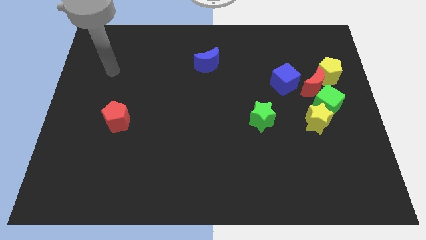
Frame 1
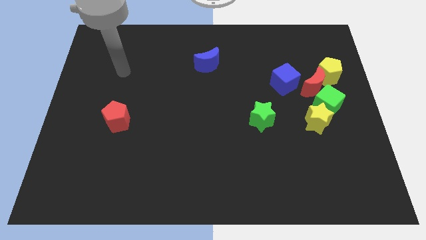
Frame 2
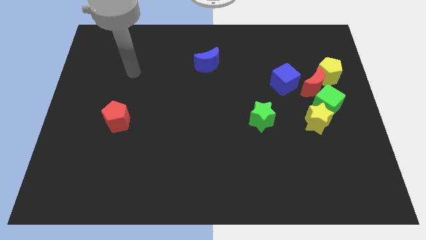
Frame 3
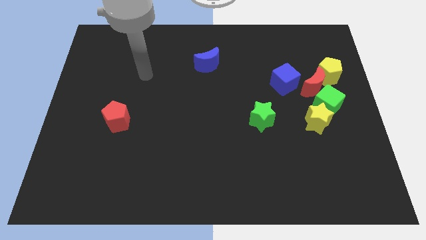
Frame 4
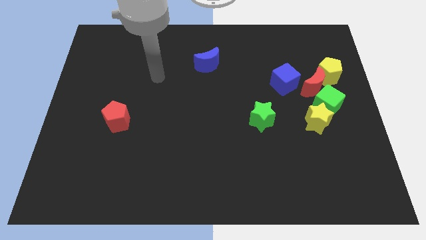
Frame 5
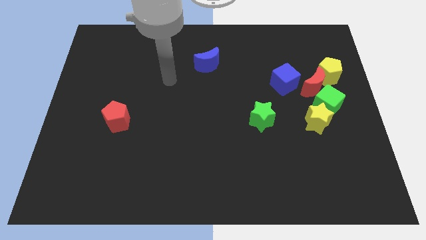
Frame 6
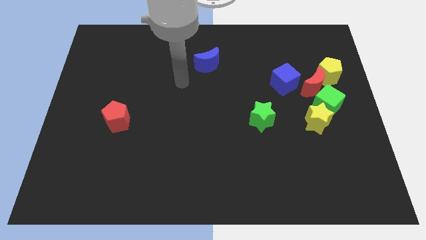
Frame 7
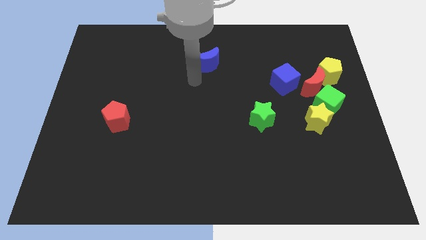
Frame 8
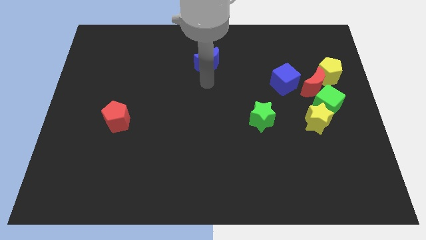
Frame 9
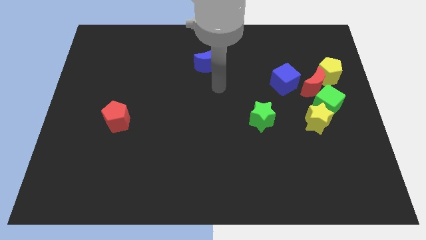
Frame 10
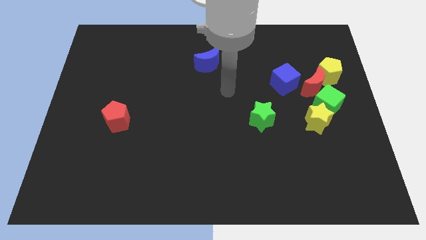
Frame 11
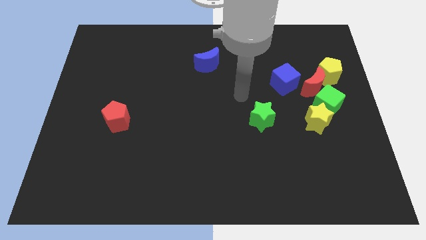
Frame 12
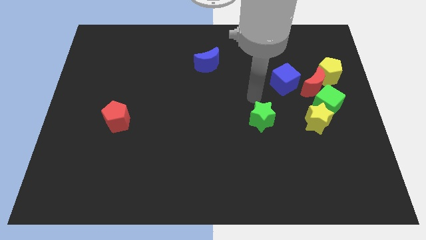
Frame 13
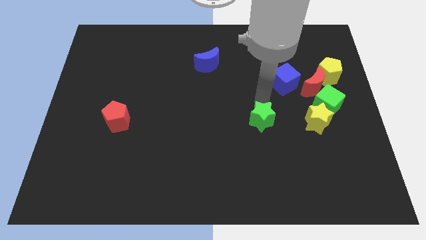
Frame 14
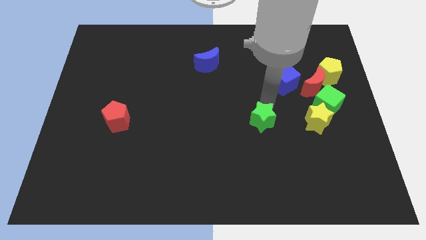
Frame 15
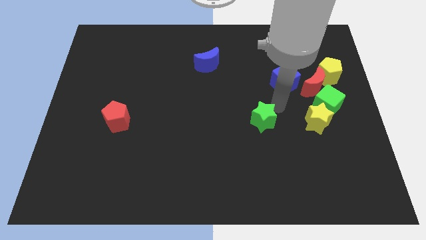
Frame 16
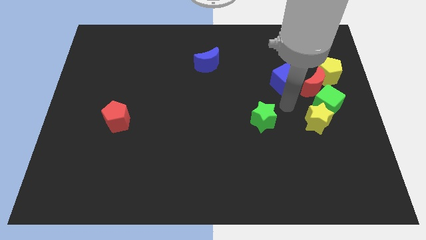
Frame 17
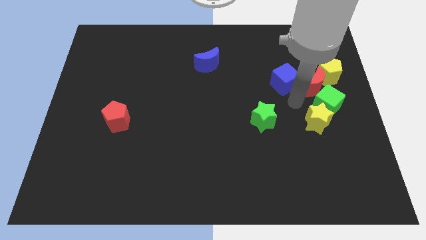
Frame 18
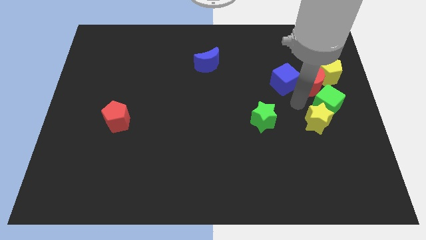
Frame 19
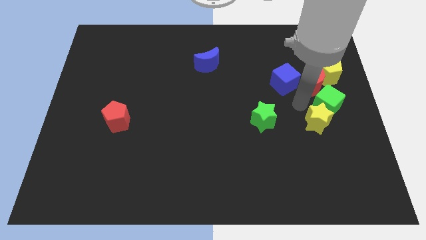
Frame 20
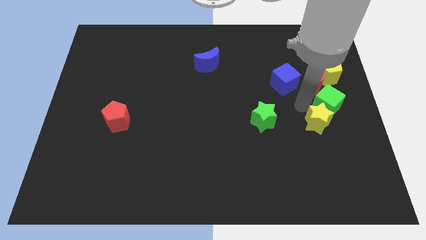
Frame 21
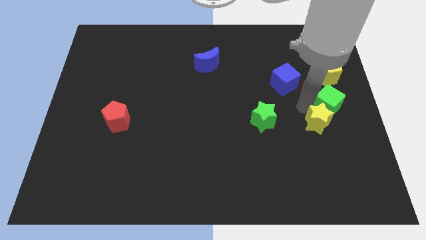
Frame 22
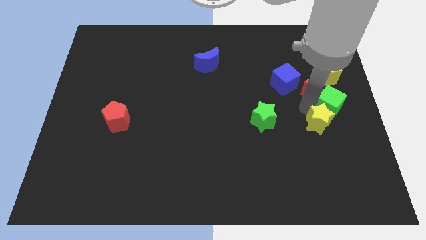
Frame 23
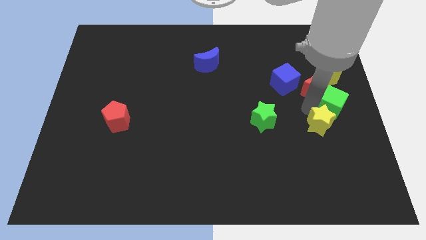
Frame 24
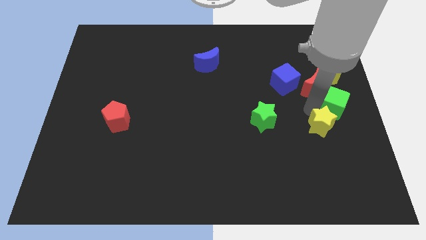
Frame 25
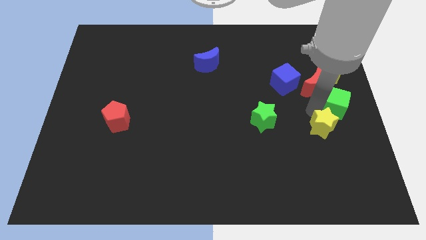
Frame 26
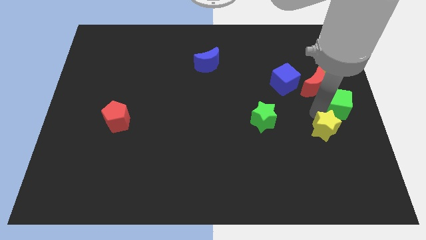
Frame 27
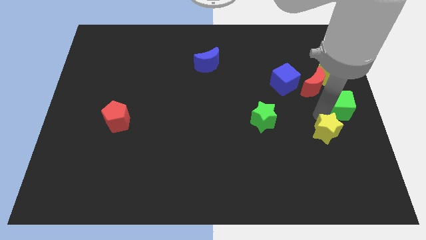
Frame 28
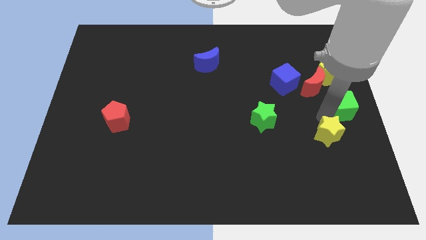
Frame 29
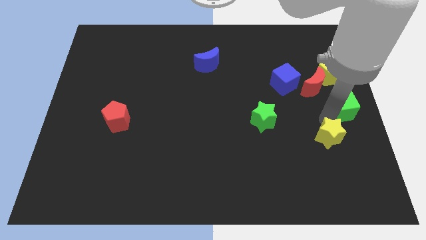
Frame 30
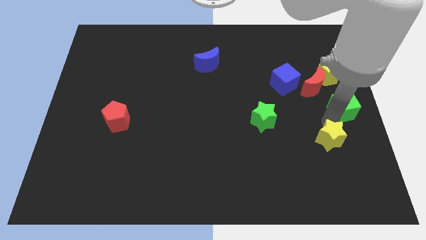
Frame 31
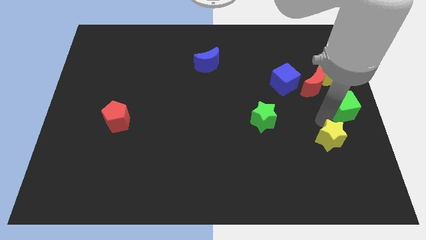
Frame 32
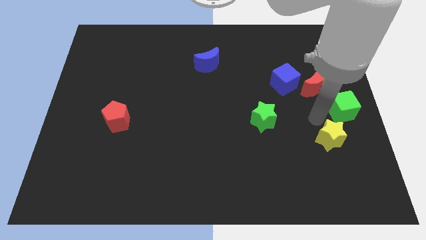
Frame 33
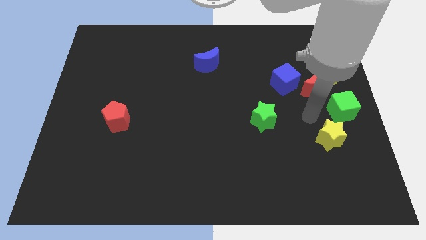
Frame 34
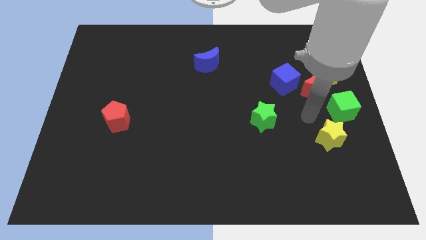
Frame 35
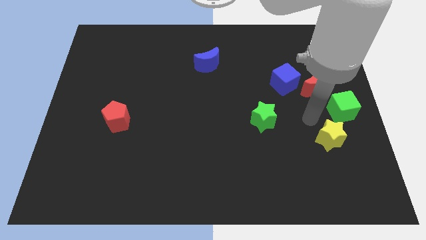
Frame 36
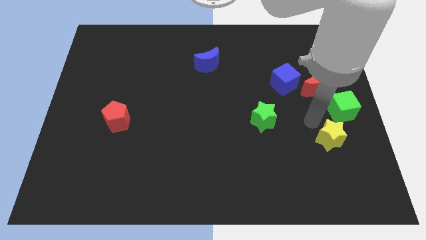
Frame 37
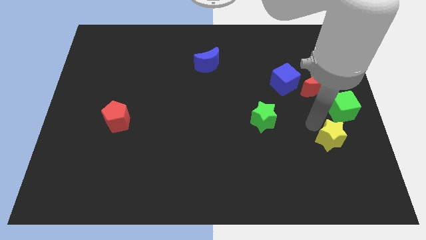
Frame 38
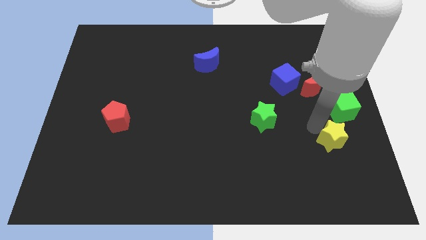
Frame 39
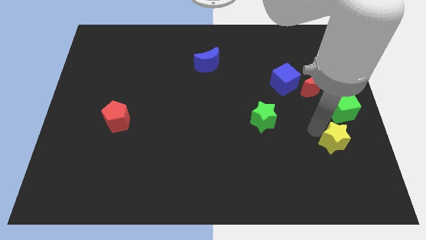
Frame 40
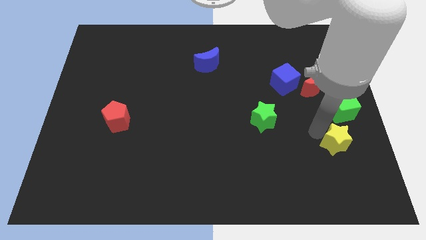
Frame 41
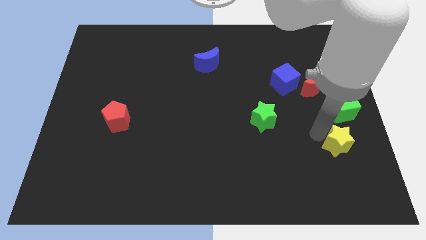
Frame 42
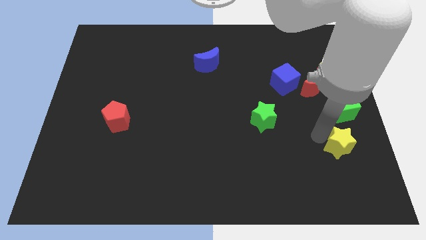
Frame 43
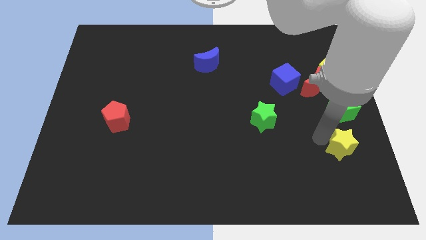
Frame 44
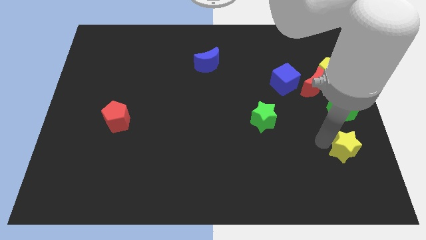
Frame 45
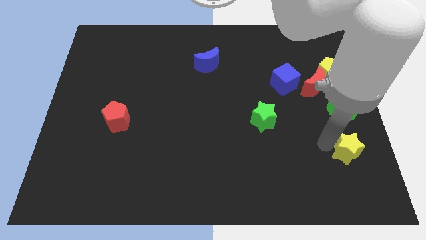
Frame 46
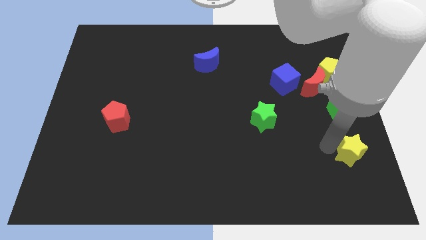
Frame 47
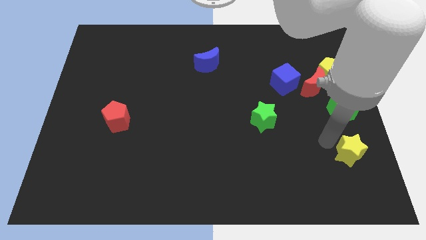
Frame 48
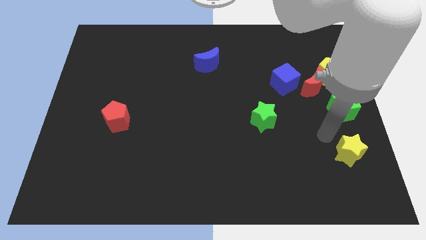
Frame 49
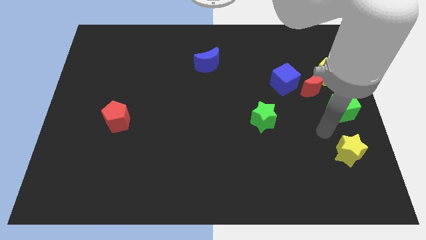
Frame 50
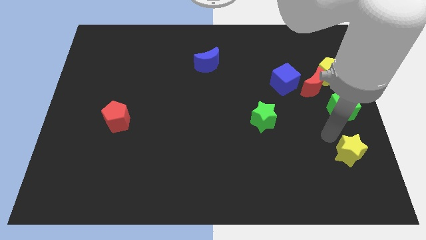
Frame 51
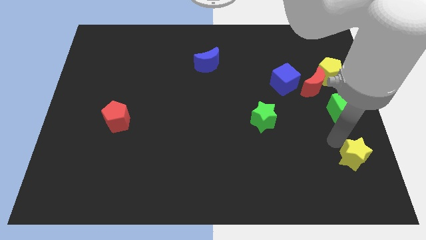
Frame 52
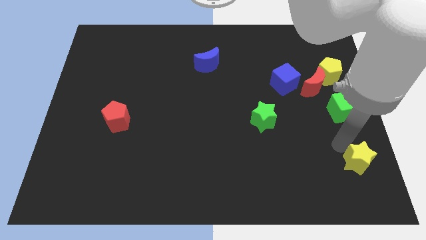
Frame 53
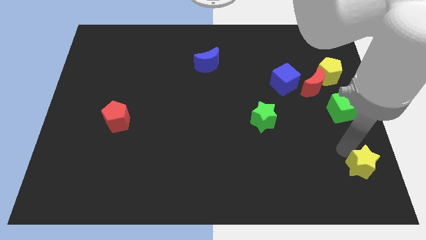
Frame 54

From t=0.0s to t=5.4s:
push the yellow star to the bottom right of the board

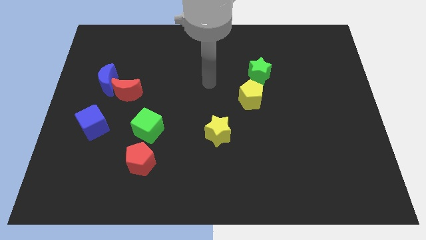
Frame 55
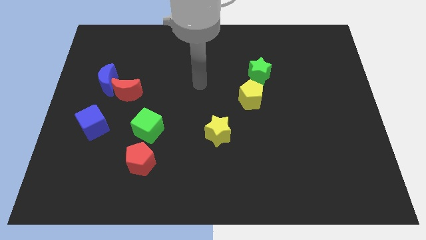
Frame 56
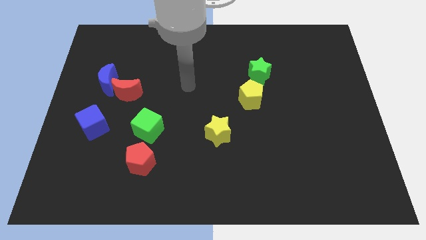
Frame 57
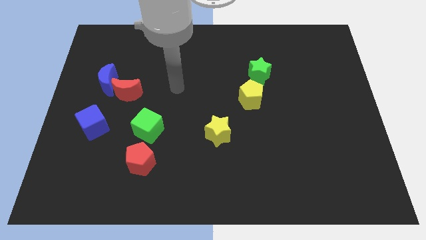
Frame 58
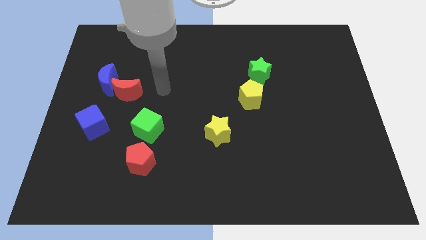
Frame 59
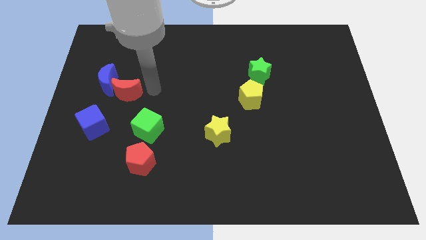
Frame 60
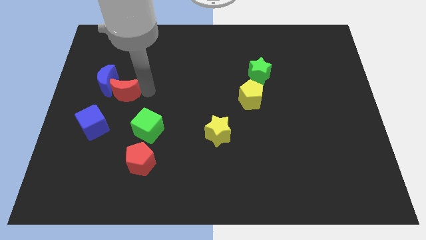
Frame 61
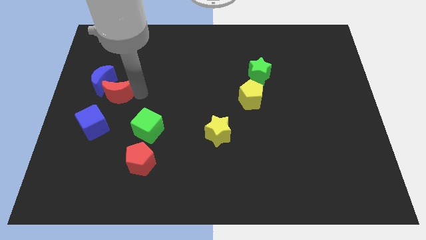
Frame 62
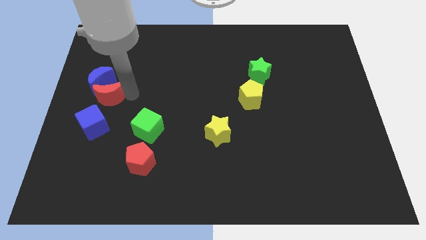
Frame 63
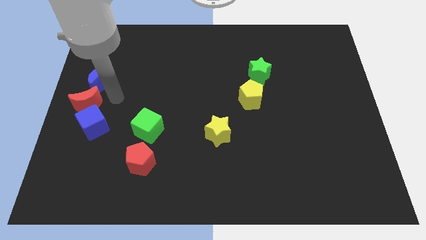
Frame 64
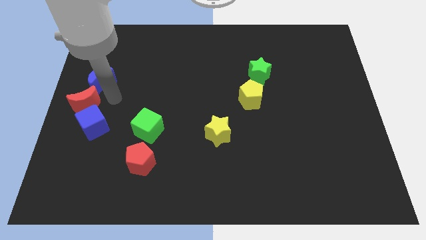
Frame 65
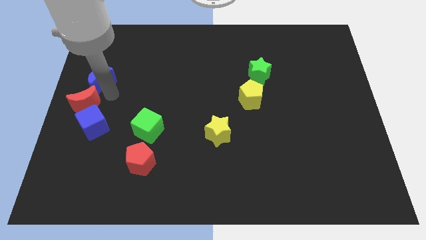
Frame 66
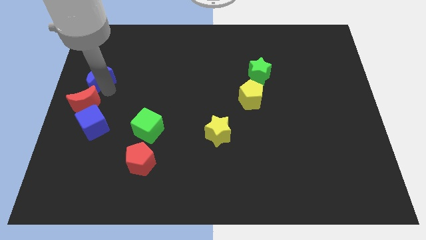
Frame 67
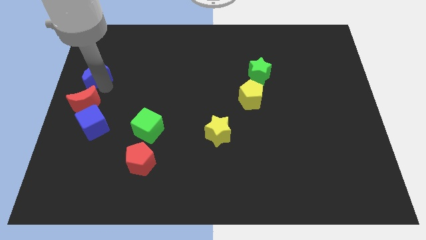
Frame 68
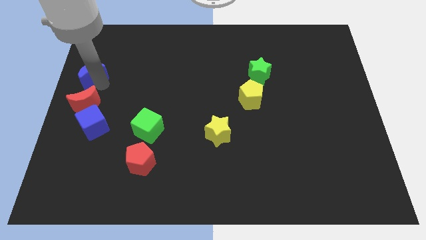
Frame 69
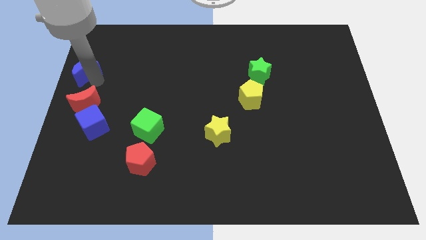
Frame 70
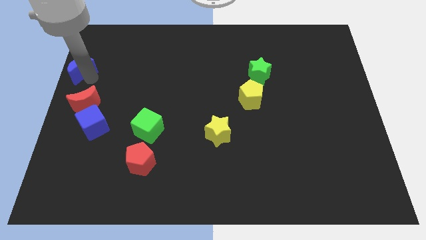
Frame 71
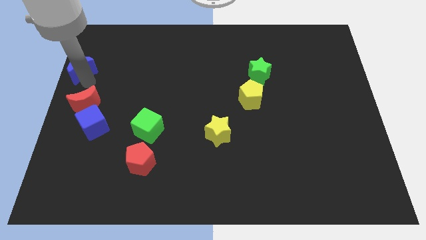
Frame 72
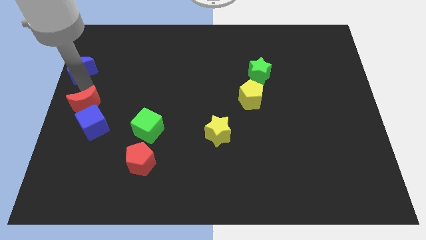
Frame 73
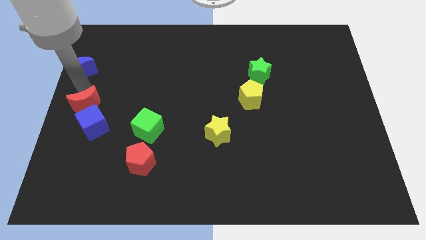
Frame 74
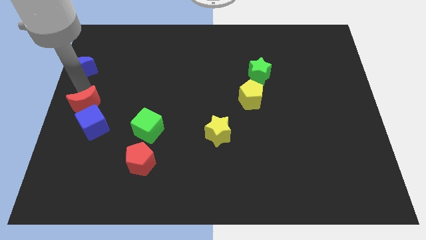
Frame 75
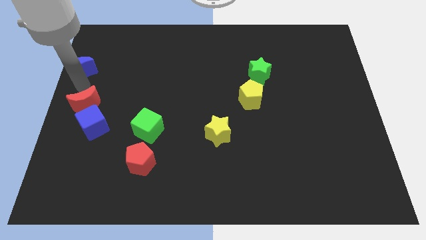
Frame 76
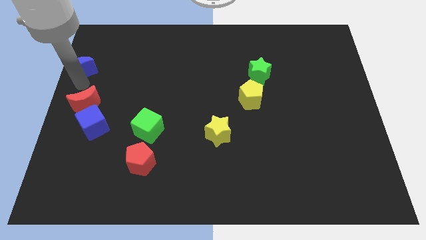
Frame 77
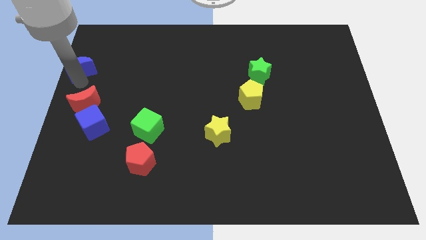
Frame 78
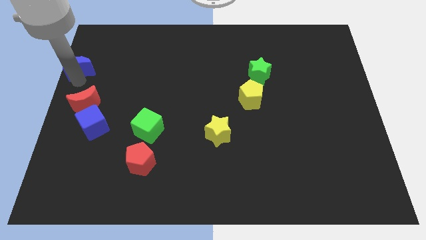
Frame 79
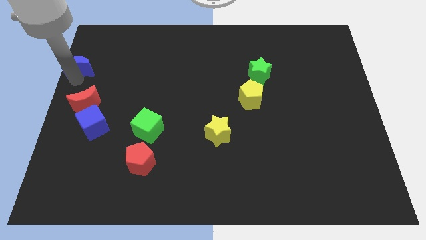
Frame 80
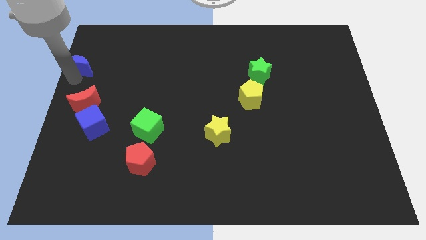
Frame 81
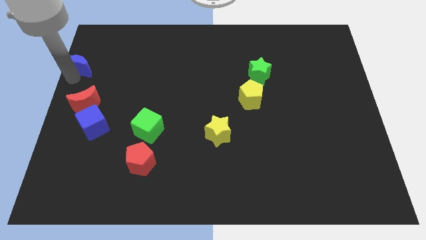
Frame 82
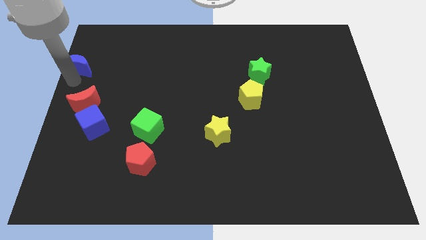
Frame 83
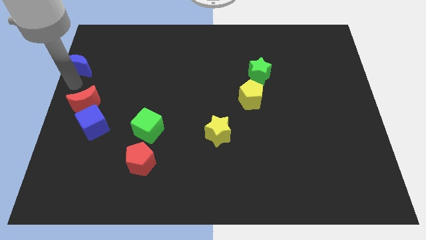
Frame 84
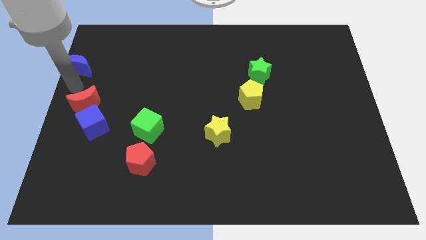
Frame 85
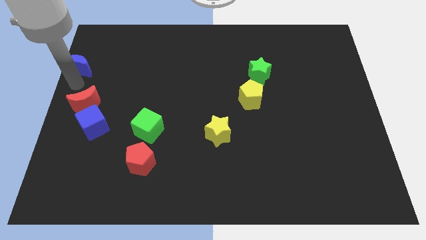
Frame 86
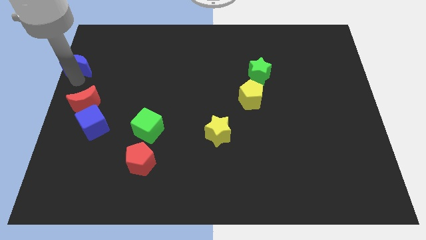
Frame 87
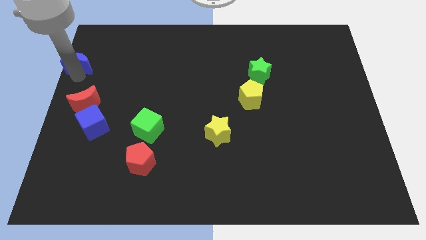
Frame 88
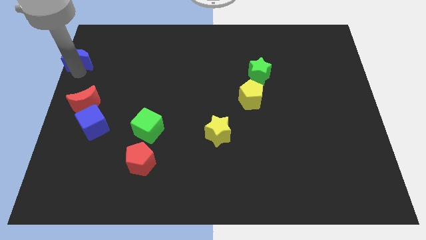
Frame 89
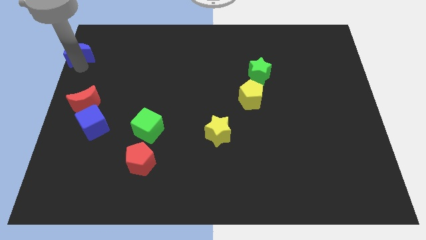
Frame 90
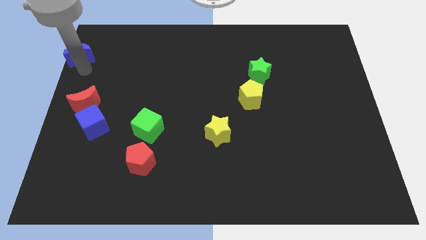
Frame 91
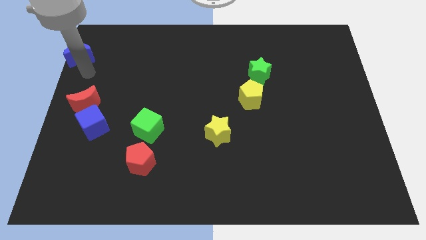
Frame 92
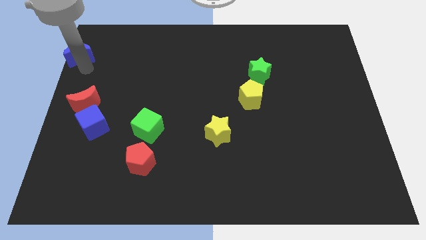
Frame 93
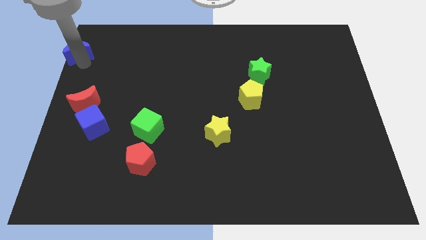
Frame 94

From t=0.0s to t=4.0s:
slide the blue moon to the top left of the board
